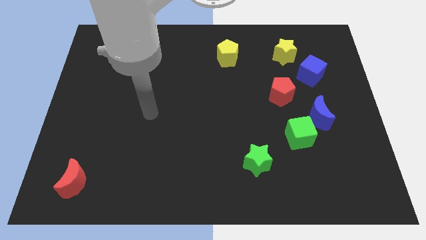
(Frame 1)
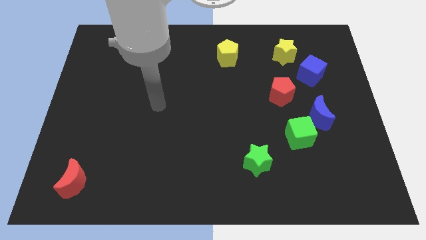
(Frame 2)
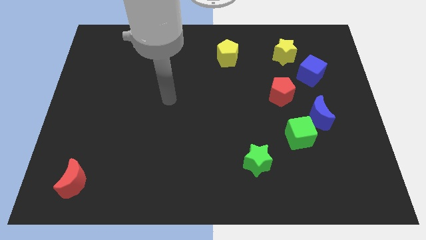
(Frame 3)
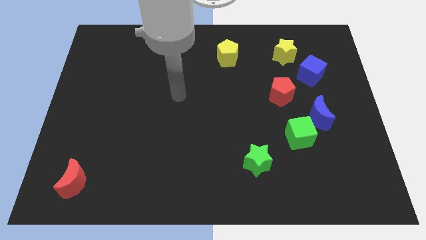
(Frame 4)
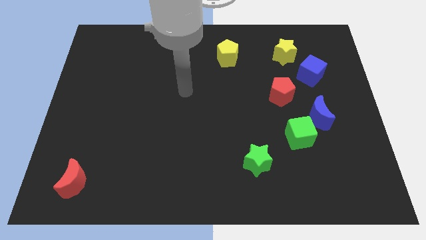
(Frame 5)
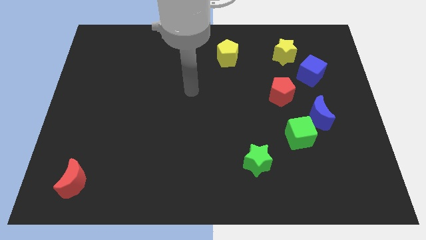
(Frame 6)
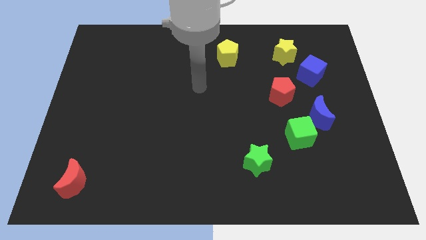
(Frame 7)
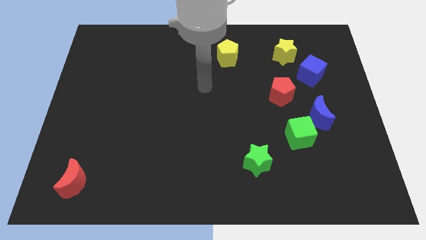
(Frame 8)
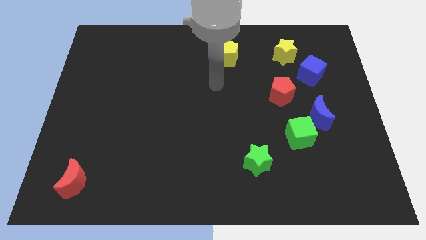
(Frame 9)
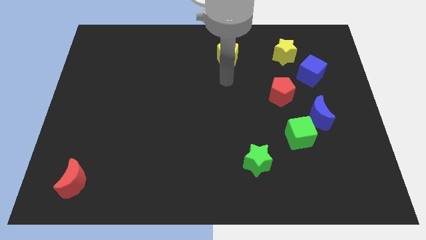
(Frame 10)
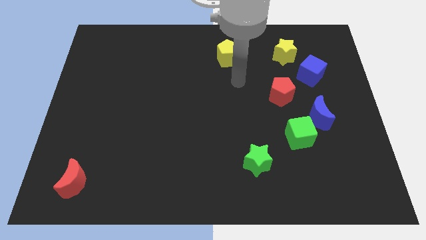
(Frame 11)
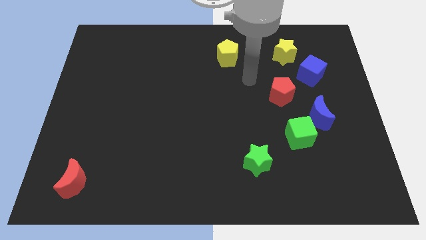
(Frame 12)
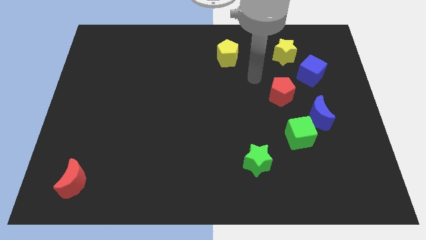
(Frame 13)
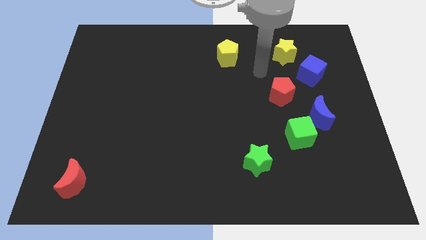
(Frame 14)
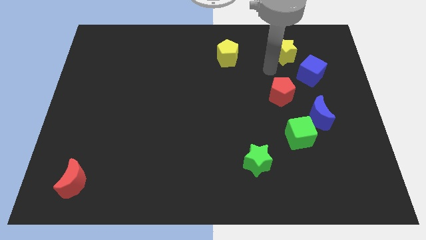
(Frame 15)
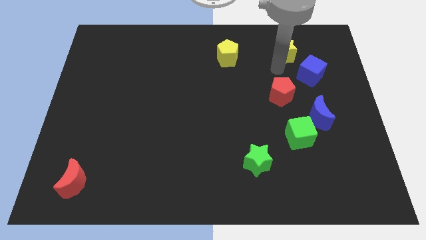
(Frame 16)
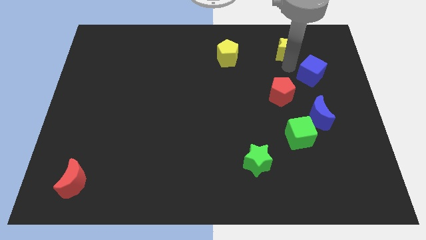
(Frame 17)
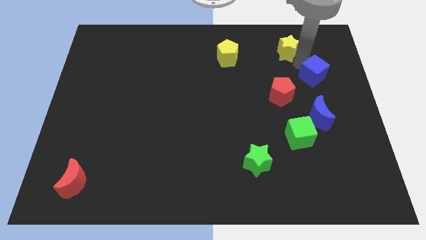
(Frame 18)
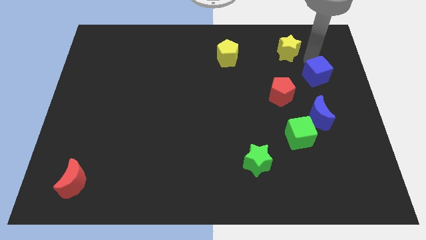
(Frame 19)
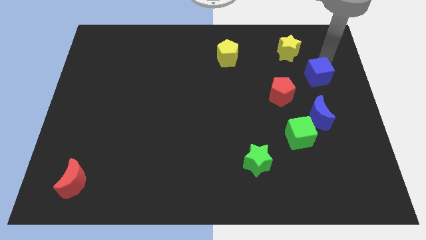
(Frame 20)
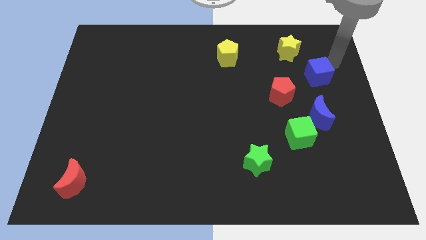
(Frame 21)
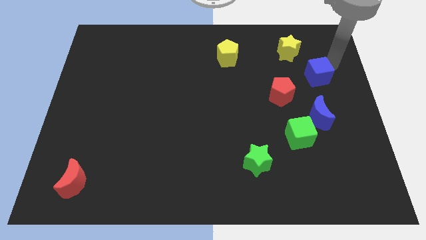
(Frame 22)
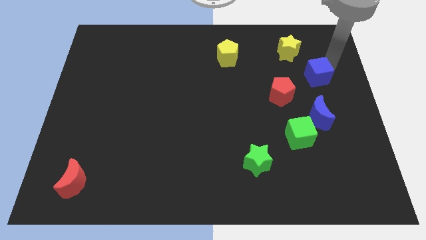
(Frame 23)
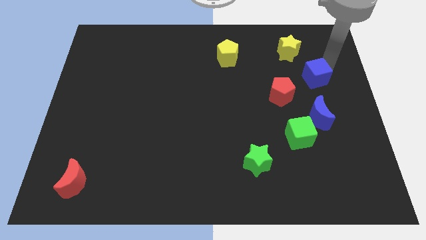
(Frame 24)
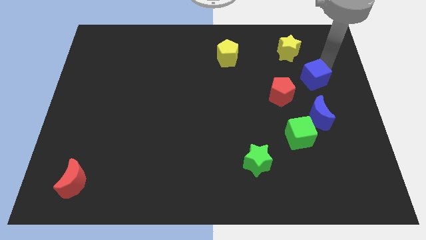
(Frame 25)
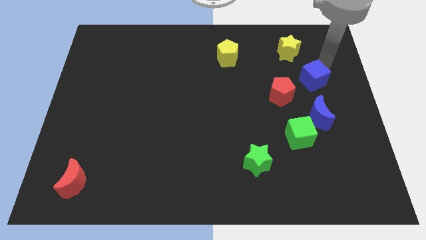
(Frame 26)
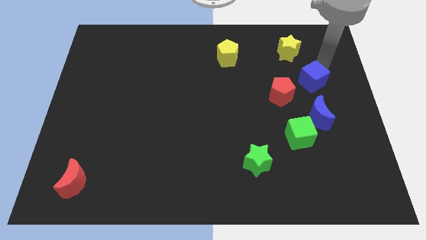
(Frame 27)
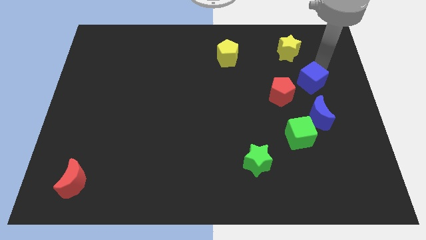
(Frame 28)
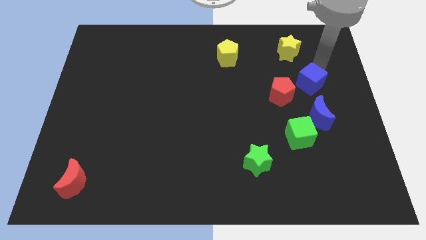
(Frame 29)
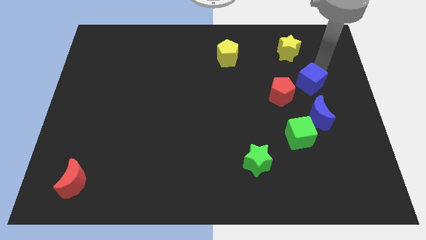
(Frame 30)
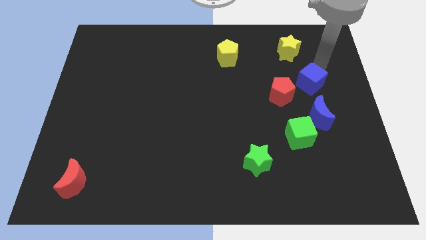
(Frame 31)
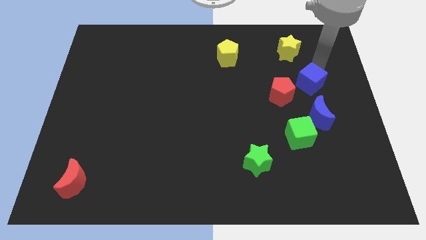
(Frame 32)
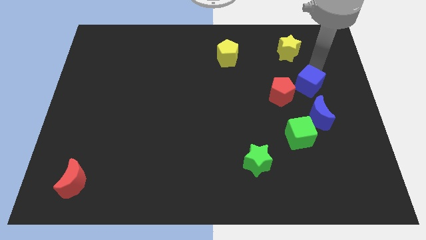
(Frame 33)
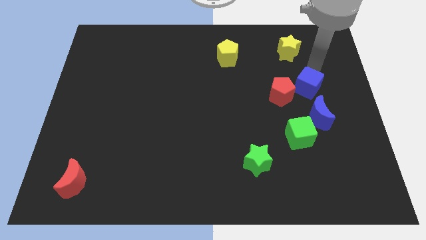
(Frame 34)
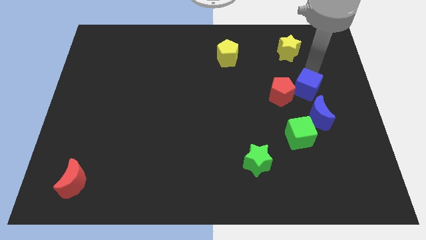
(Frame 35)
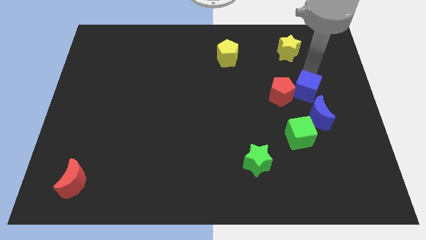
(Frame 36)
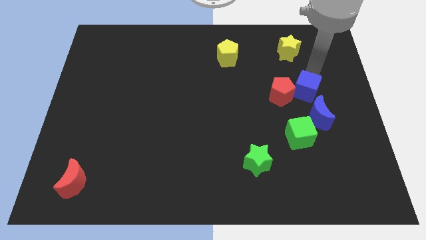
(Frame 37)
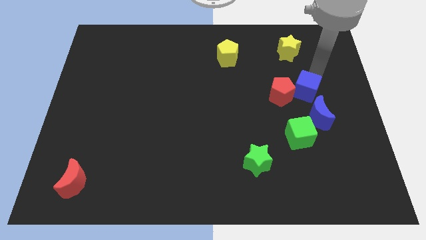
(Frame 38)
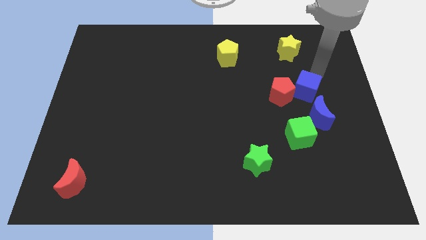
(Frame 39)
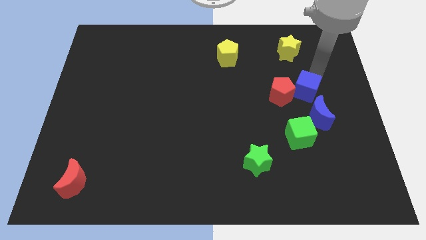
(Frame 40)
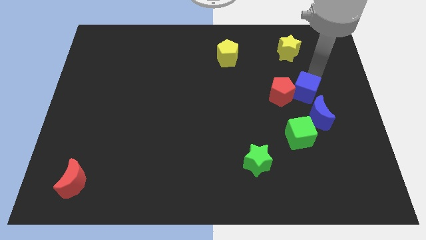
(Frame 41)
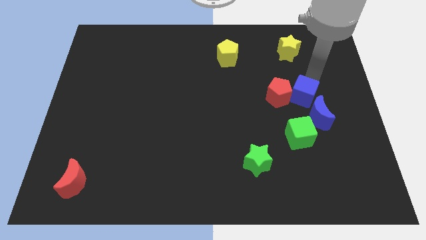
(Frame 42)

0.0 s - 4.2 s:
slightly slide the blue cube diagonally downwards and left

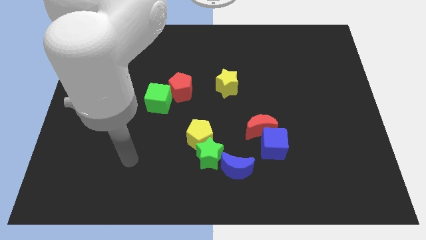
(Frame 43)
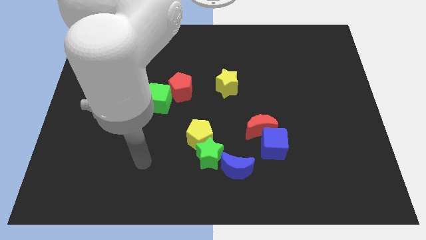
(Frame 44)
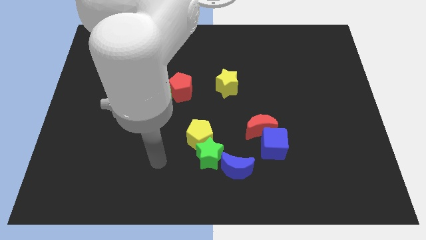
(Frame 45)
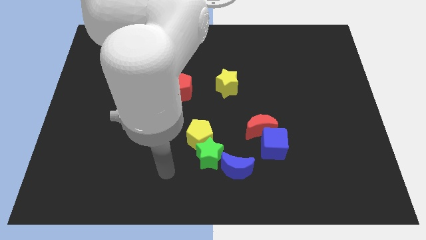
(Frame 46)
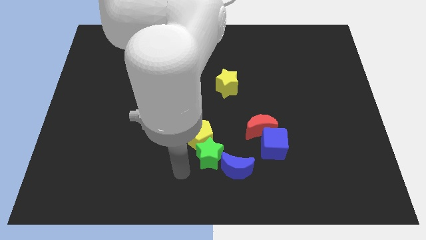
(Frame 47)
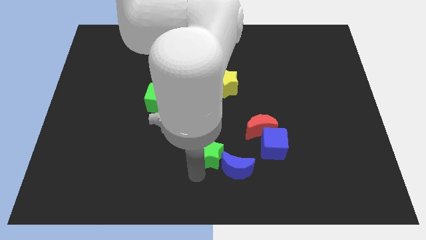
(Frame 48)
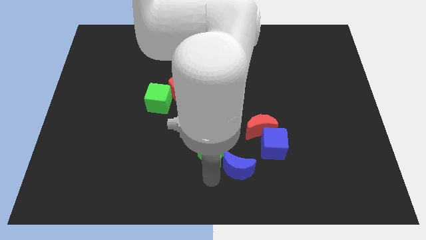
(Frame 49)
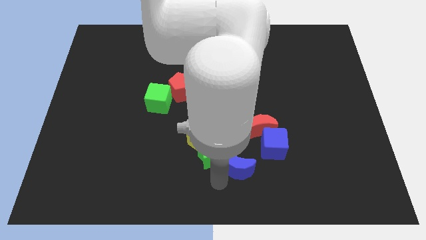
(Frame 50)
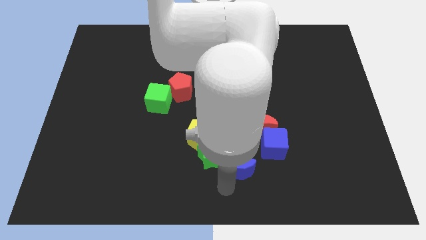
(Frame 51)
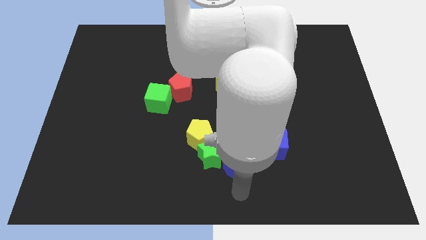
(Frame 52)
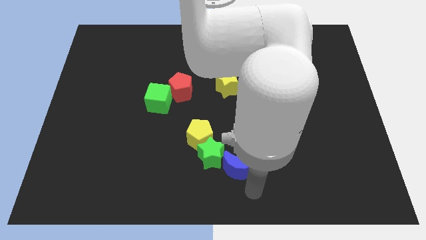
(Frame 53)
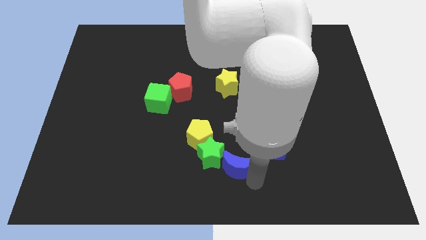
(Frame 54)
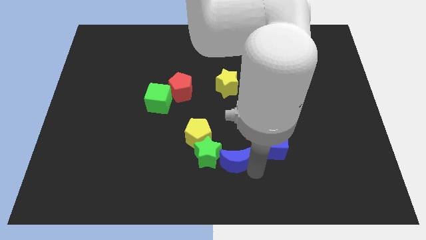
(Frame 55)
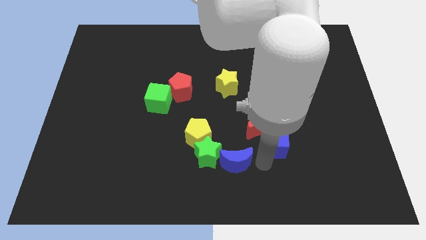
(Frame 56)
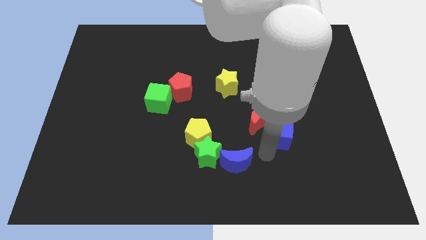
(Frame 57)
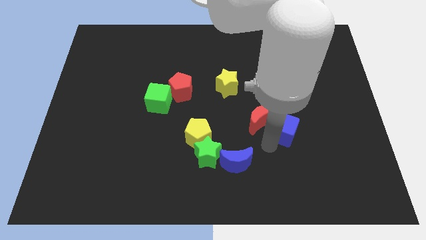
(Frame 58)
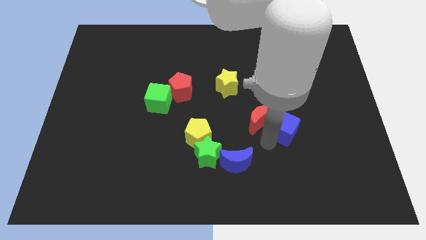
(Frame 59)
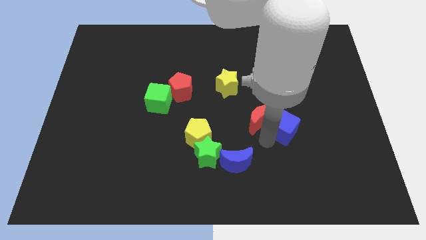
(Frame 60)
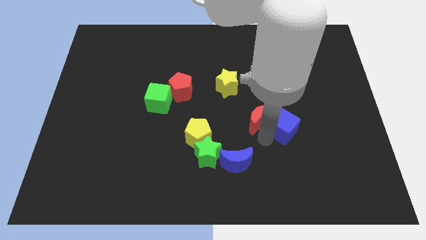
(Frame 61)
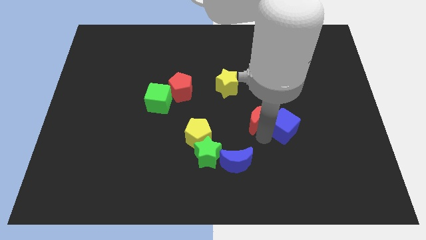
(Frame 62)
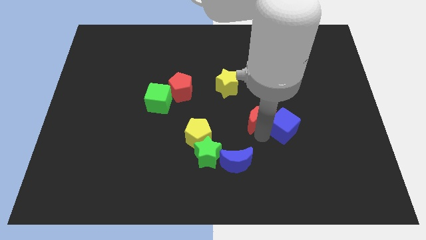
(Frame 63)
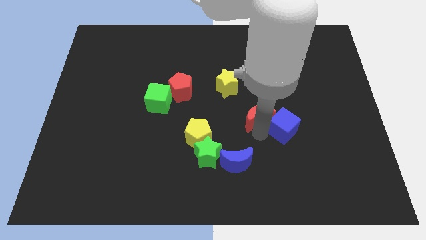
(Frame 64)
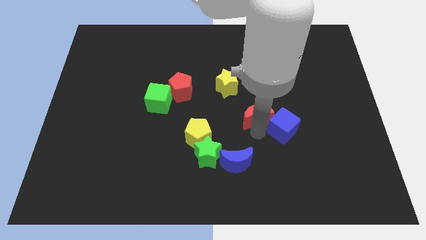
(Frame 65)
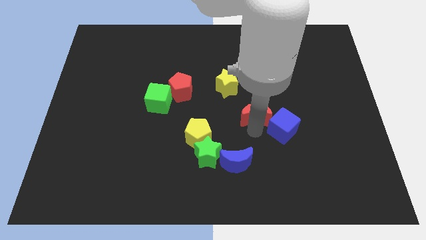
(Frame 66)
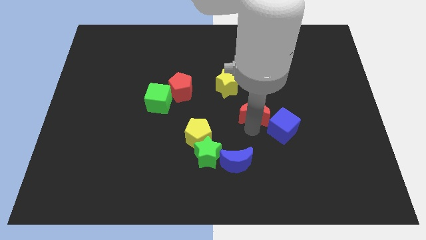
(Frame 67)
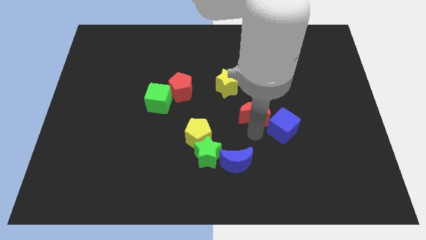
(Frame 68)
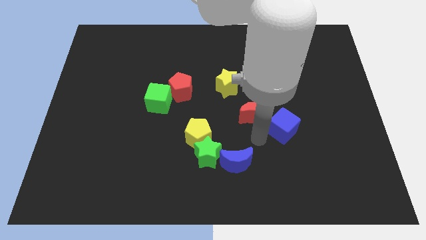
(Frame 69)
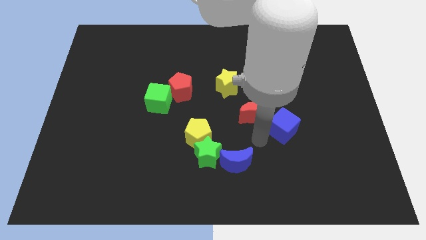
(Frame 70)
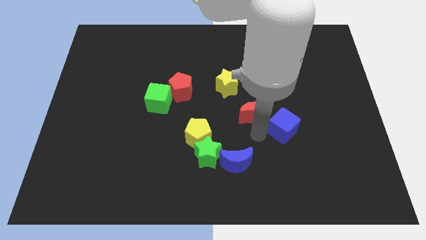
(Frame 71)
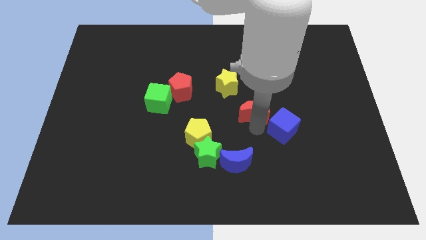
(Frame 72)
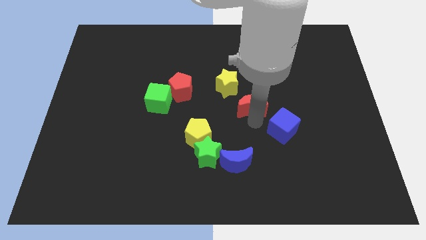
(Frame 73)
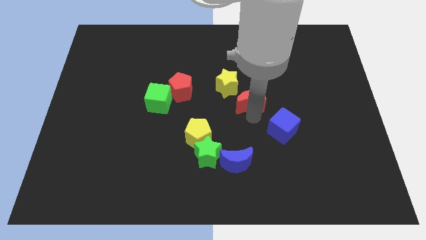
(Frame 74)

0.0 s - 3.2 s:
slightly move the red moon up

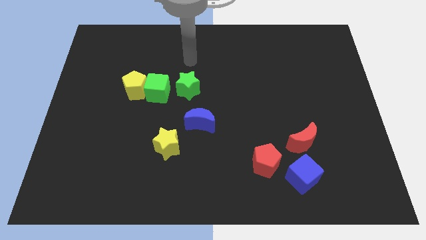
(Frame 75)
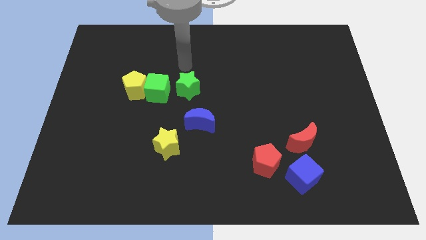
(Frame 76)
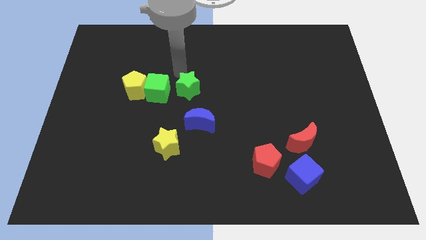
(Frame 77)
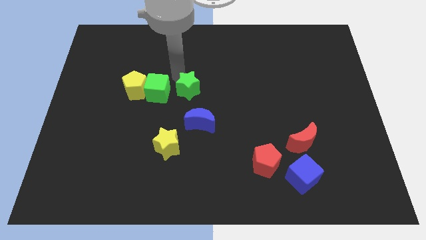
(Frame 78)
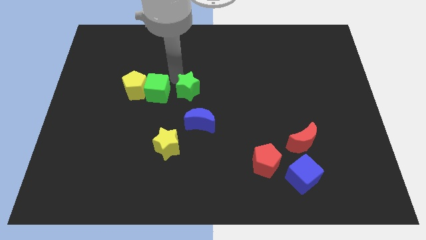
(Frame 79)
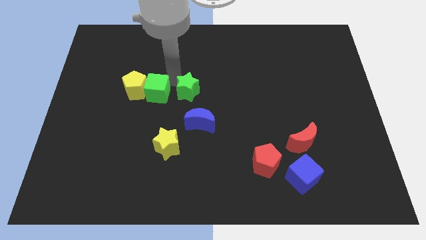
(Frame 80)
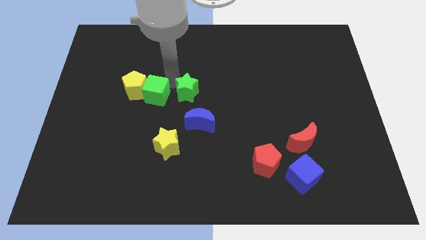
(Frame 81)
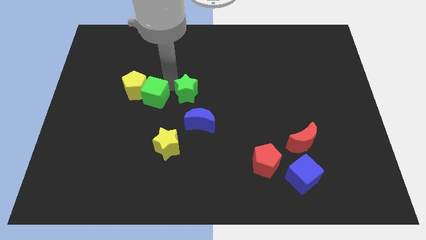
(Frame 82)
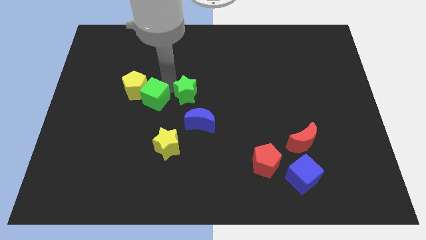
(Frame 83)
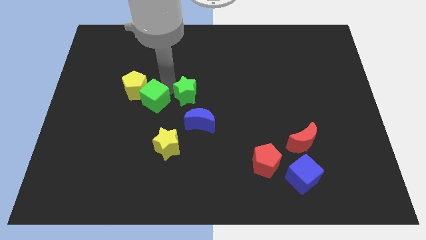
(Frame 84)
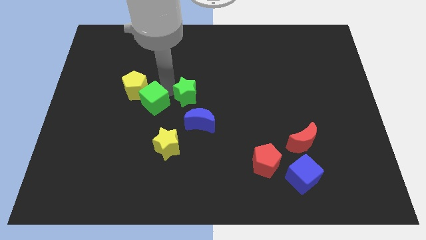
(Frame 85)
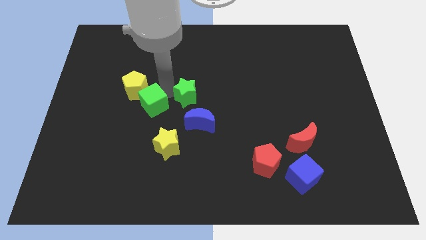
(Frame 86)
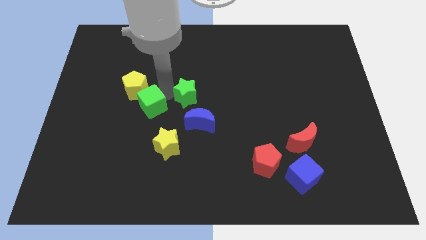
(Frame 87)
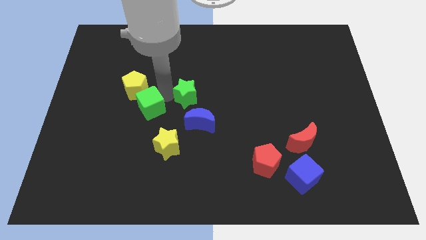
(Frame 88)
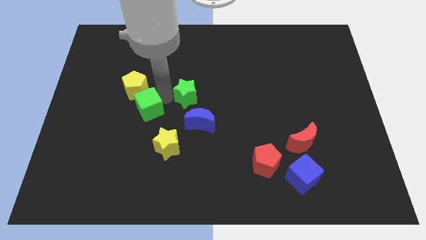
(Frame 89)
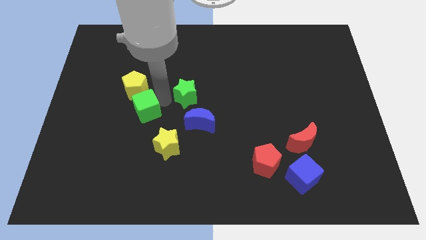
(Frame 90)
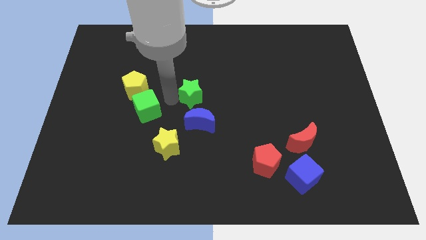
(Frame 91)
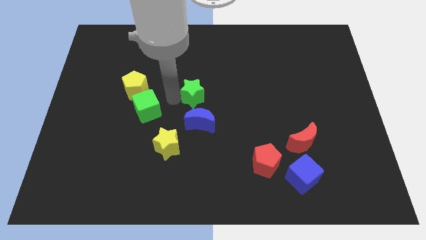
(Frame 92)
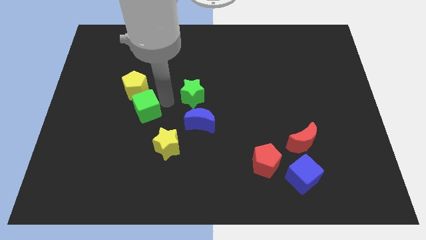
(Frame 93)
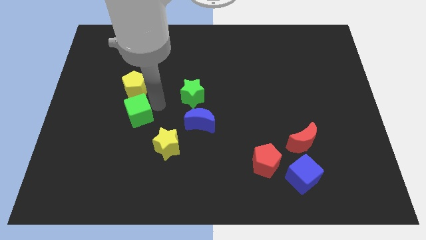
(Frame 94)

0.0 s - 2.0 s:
slide the green cube down and left diagonally somewhat
